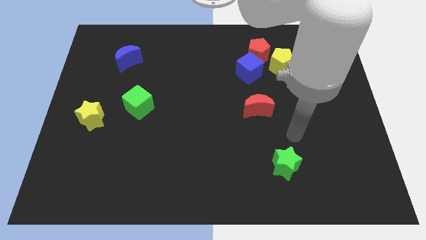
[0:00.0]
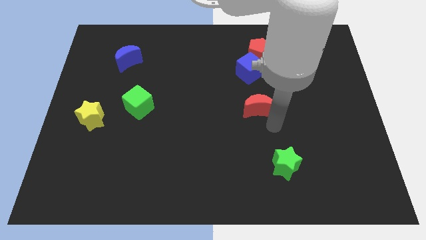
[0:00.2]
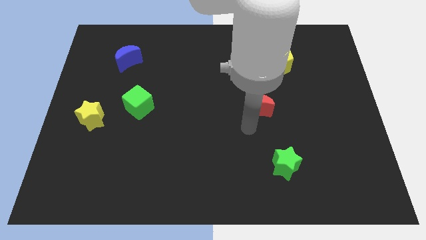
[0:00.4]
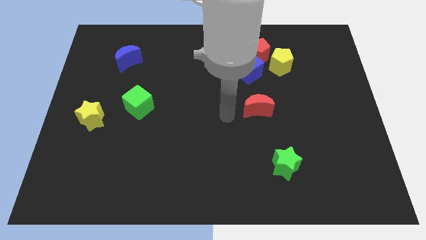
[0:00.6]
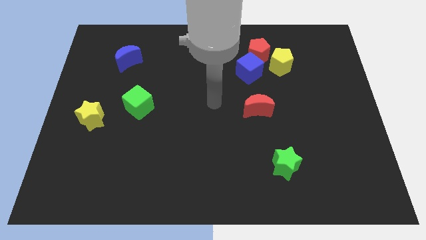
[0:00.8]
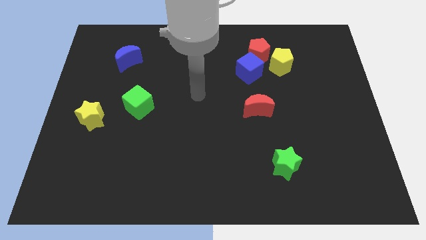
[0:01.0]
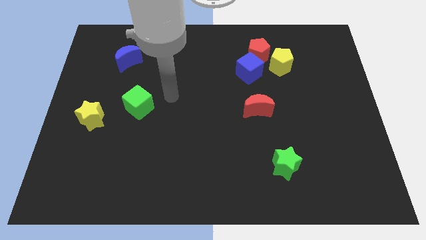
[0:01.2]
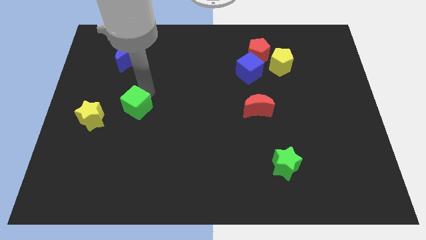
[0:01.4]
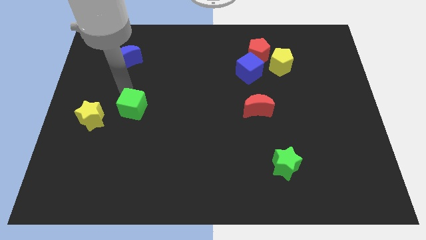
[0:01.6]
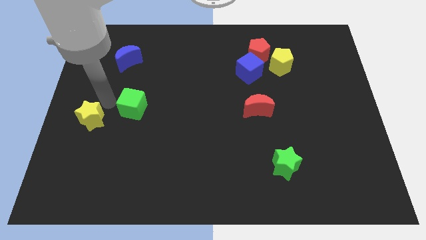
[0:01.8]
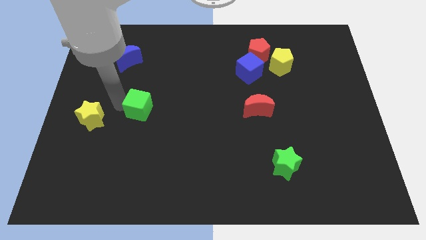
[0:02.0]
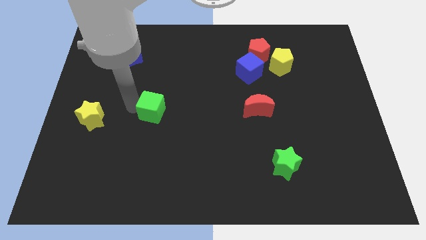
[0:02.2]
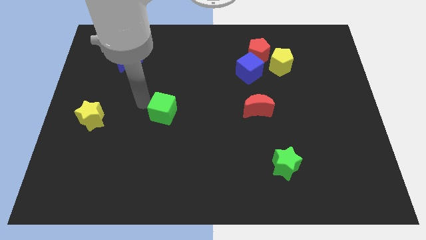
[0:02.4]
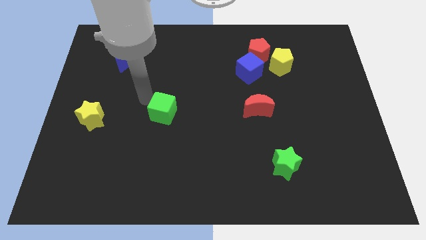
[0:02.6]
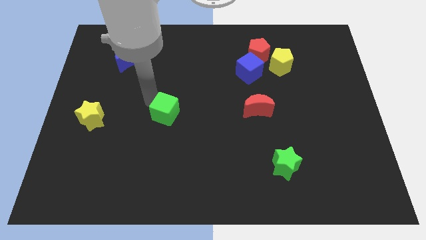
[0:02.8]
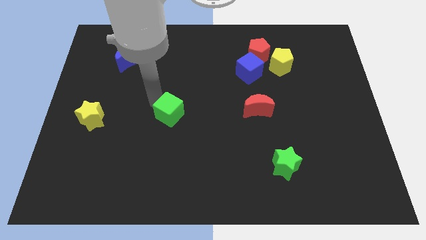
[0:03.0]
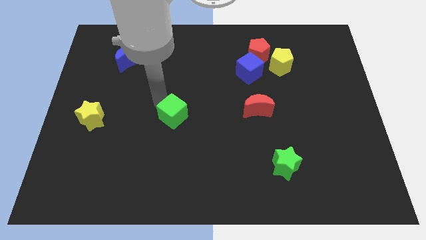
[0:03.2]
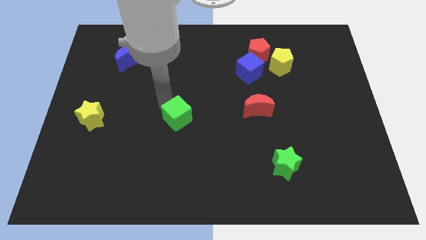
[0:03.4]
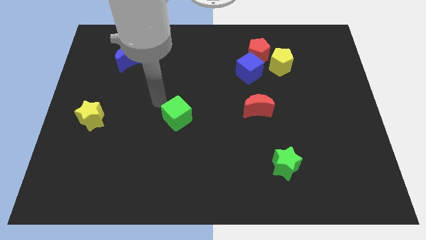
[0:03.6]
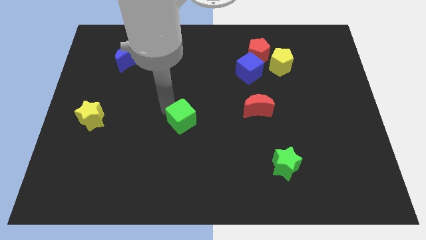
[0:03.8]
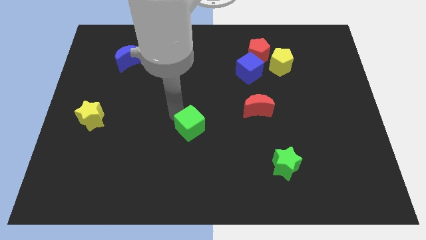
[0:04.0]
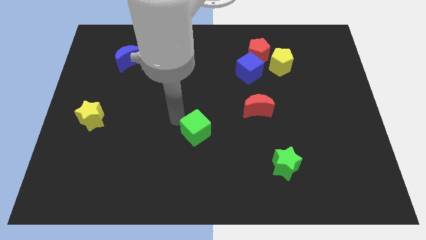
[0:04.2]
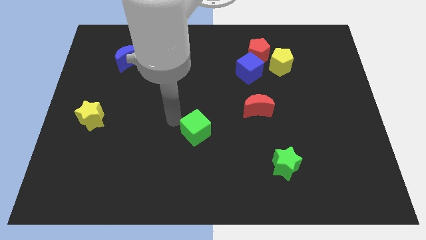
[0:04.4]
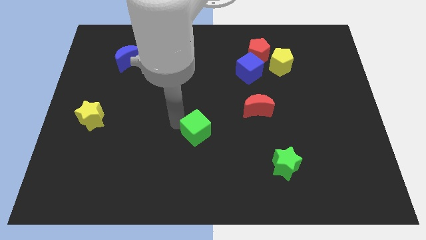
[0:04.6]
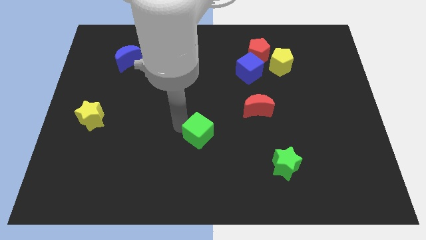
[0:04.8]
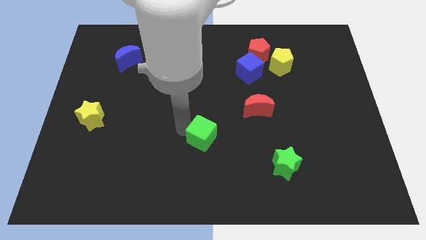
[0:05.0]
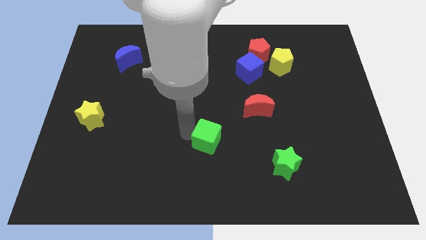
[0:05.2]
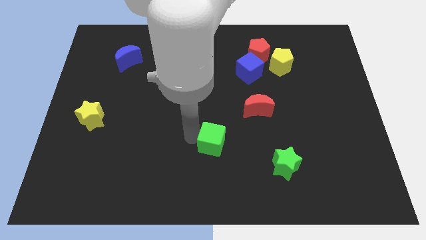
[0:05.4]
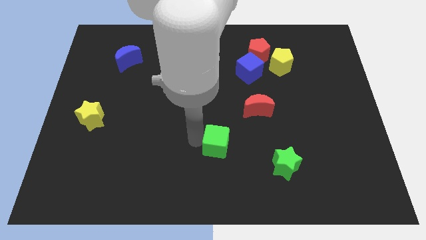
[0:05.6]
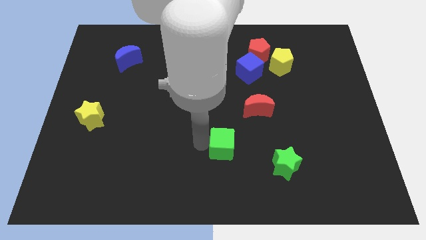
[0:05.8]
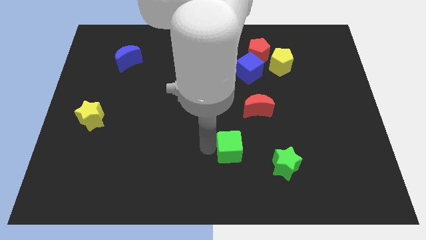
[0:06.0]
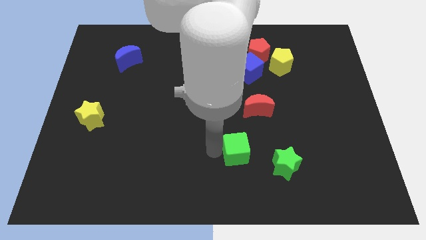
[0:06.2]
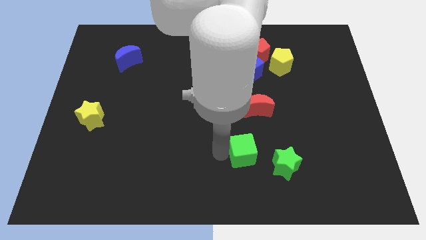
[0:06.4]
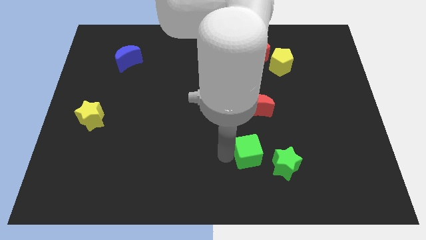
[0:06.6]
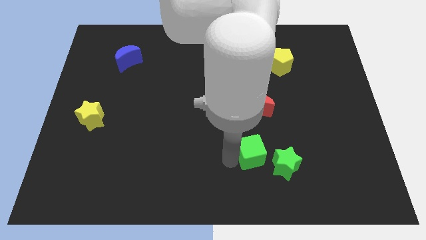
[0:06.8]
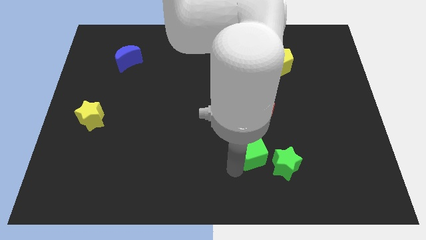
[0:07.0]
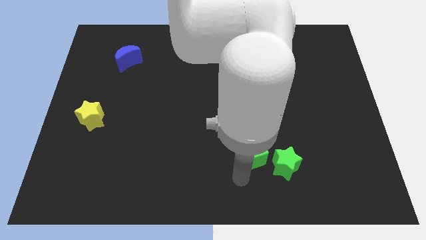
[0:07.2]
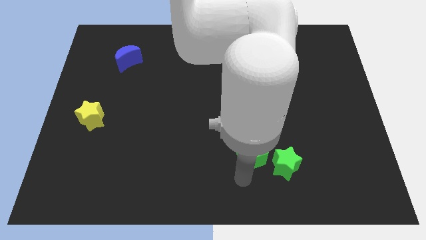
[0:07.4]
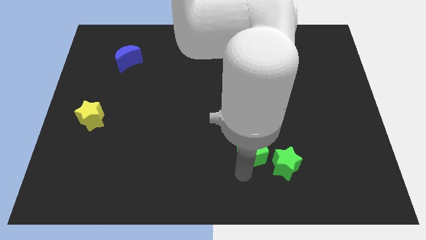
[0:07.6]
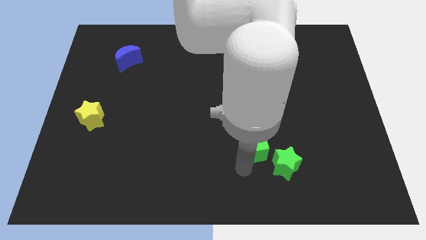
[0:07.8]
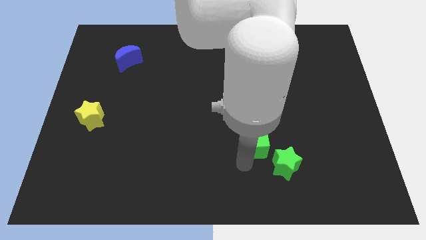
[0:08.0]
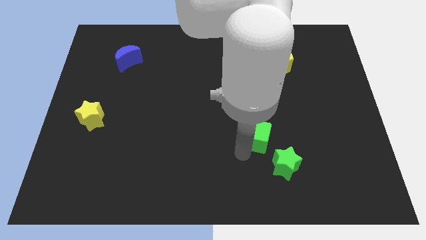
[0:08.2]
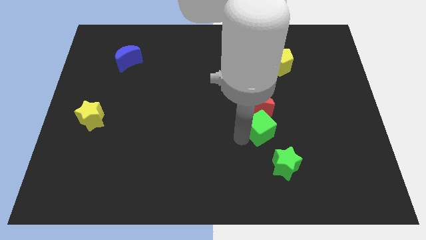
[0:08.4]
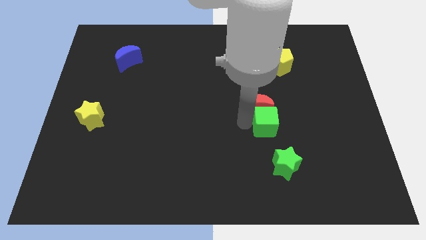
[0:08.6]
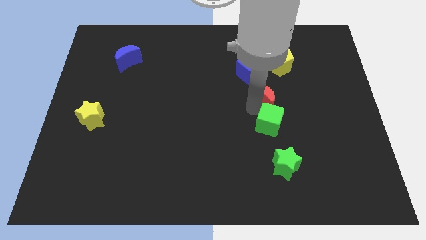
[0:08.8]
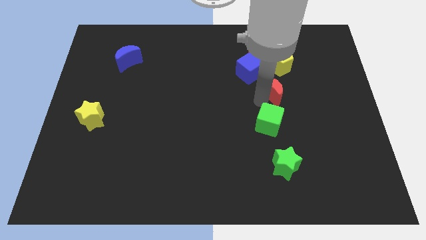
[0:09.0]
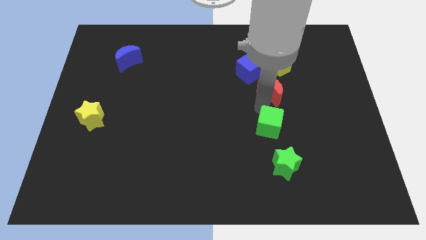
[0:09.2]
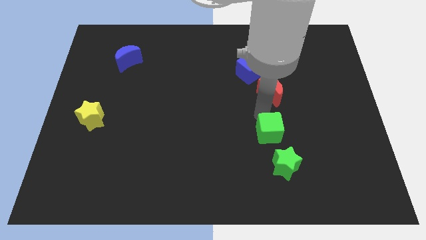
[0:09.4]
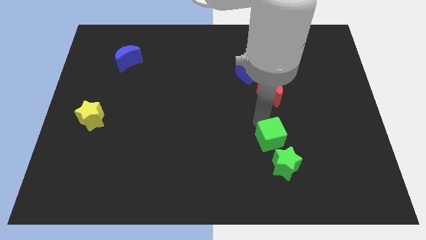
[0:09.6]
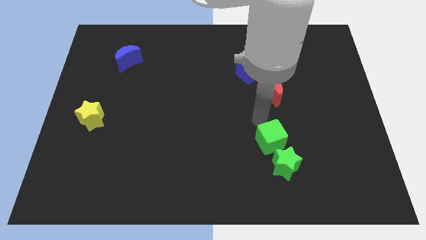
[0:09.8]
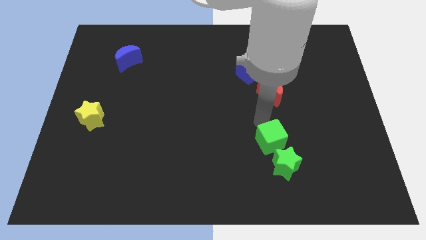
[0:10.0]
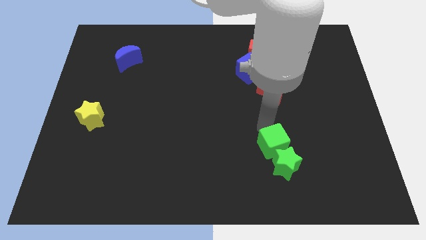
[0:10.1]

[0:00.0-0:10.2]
slide the green cube next to the green star

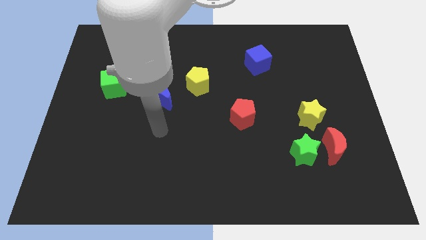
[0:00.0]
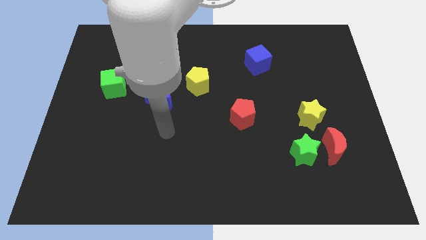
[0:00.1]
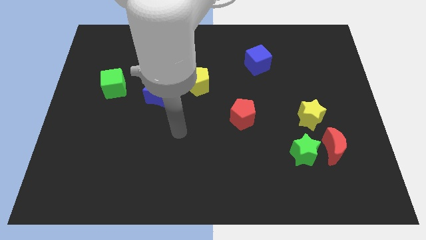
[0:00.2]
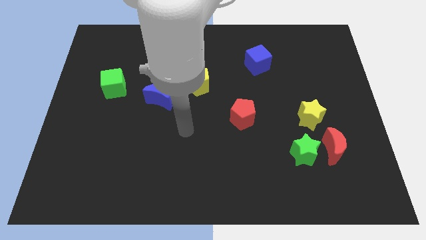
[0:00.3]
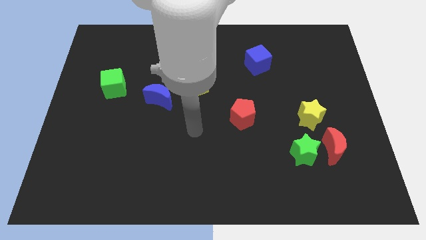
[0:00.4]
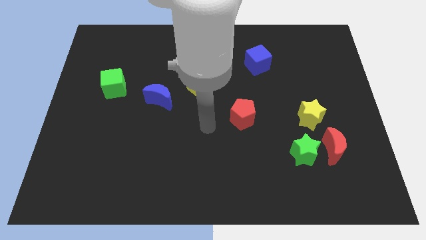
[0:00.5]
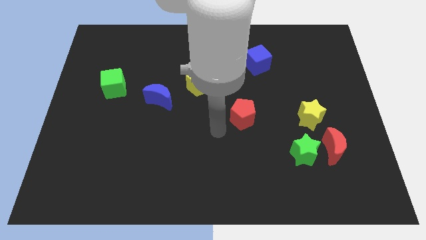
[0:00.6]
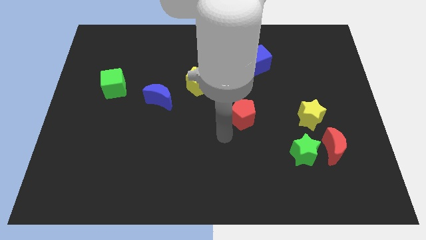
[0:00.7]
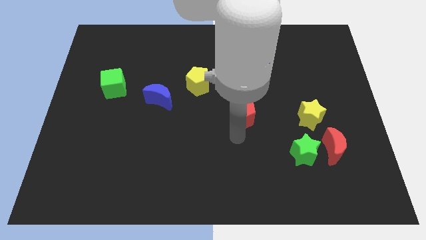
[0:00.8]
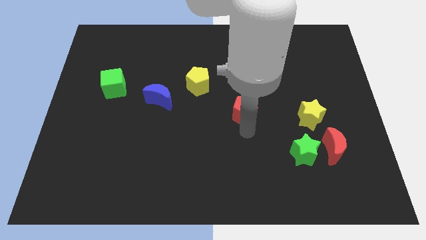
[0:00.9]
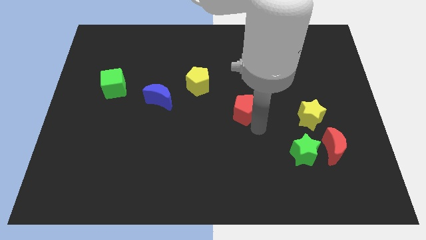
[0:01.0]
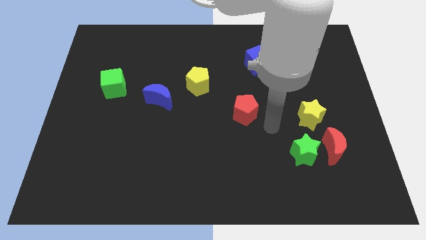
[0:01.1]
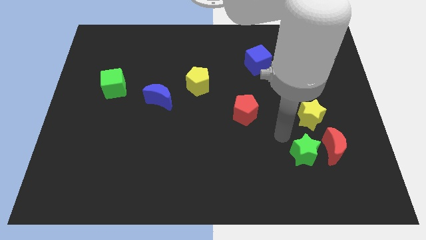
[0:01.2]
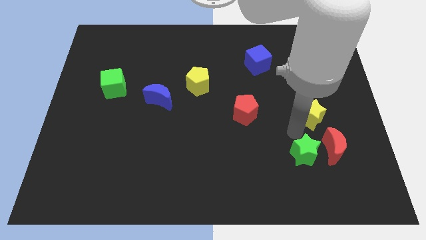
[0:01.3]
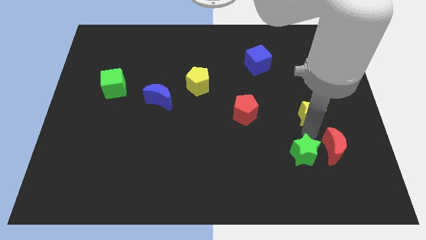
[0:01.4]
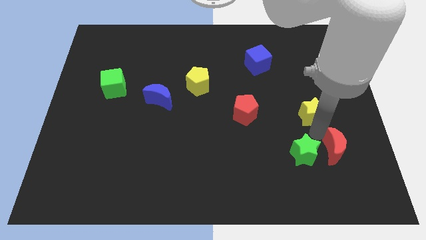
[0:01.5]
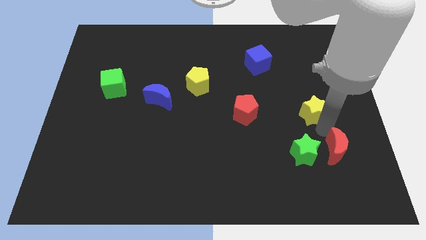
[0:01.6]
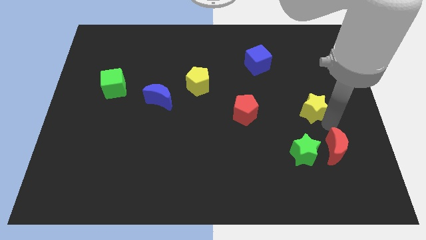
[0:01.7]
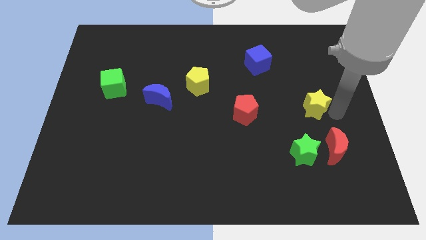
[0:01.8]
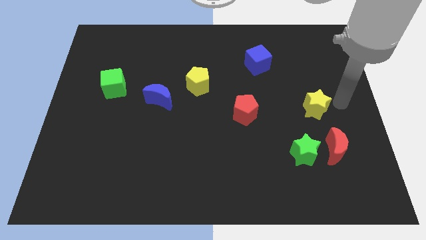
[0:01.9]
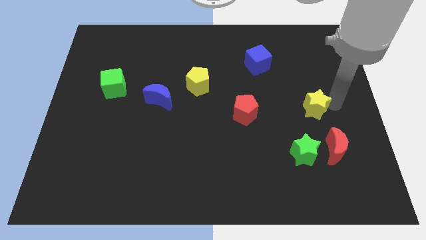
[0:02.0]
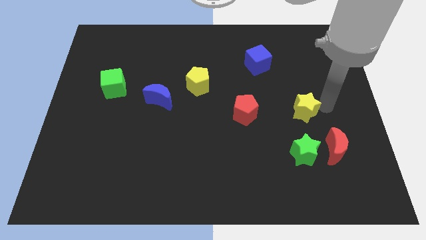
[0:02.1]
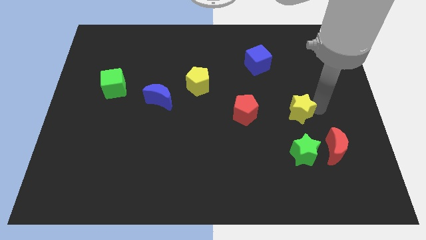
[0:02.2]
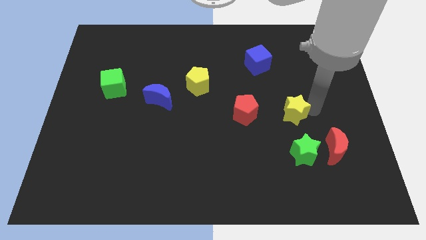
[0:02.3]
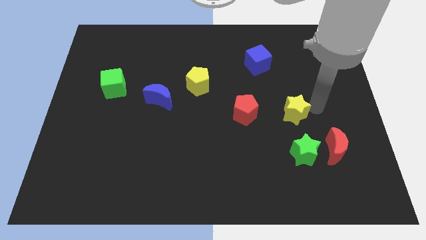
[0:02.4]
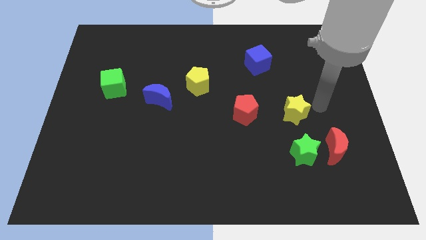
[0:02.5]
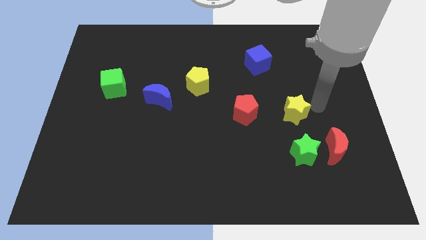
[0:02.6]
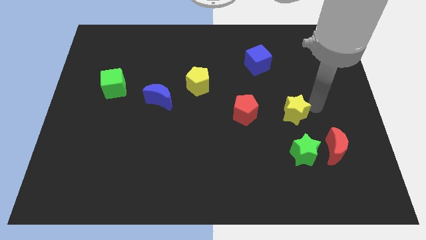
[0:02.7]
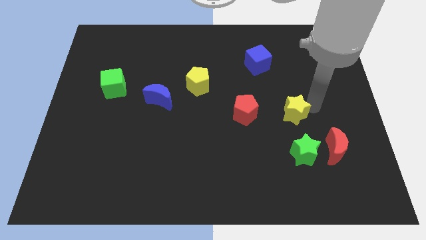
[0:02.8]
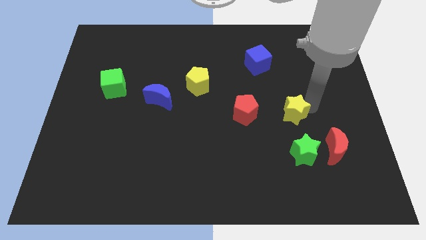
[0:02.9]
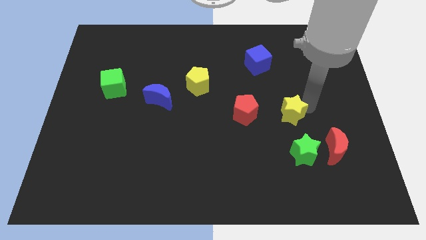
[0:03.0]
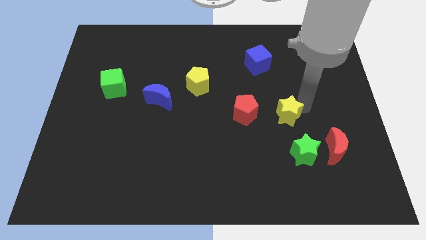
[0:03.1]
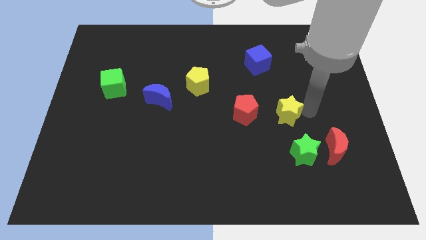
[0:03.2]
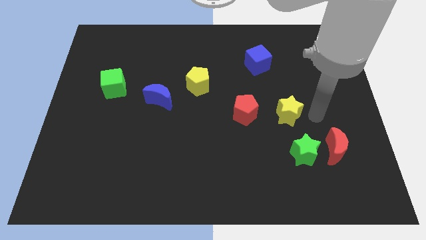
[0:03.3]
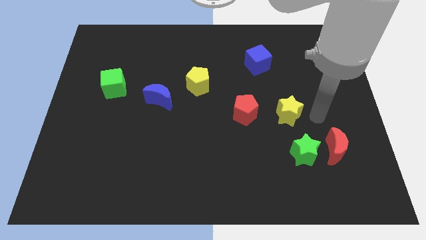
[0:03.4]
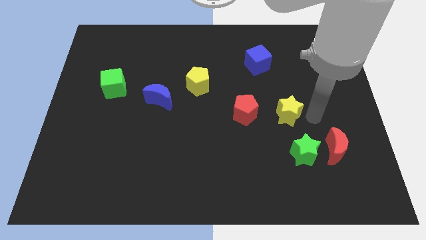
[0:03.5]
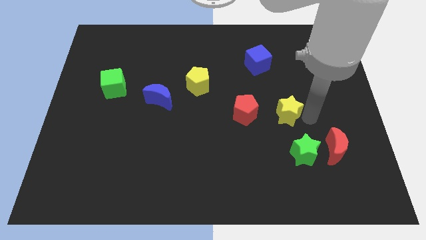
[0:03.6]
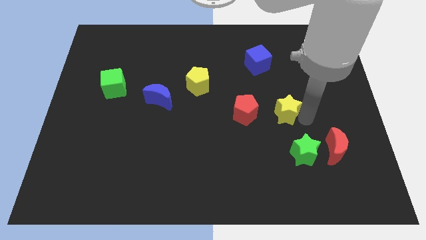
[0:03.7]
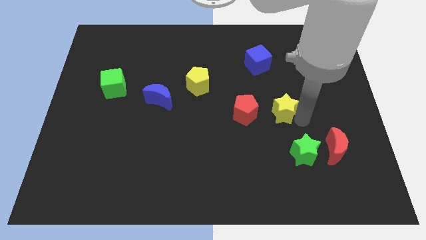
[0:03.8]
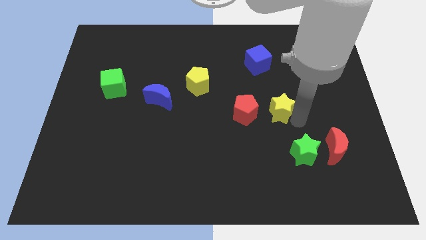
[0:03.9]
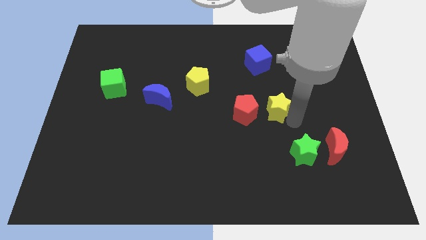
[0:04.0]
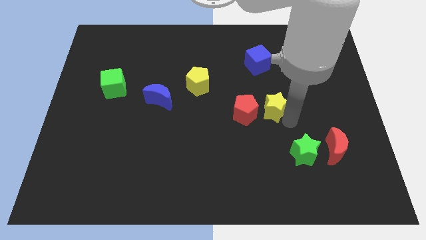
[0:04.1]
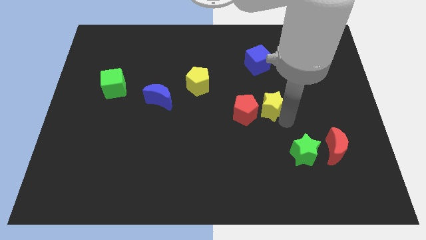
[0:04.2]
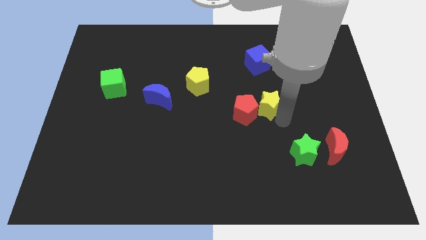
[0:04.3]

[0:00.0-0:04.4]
put the yellow star next to the red pentagon
